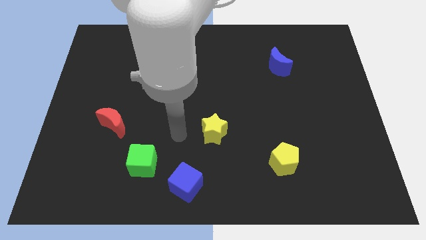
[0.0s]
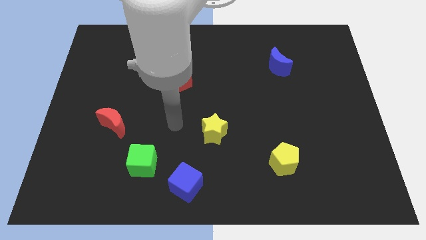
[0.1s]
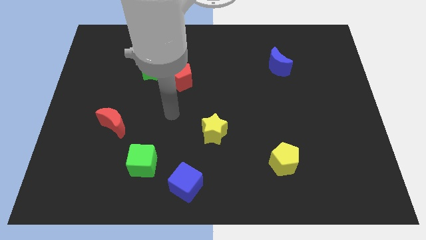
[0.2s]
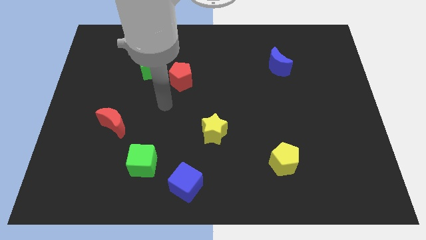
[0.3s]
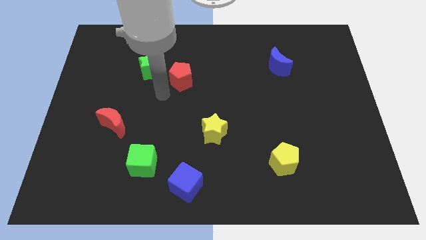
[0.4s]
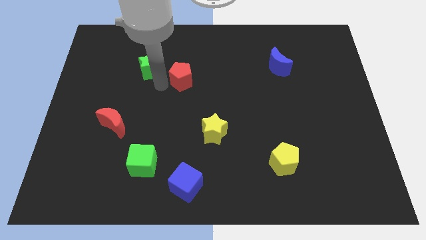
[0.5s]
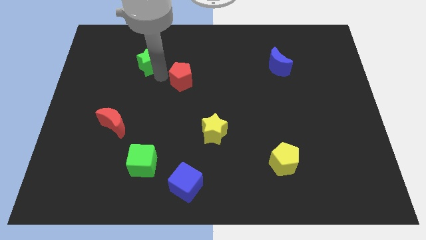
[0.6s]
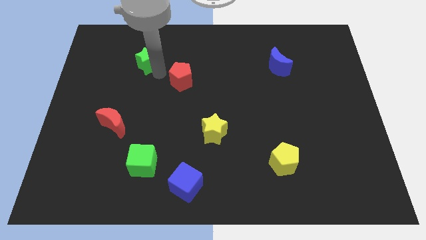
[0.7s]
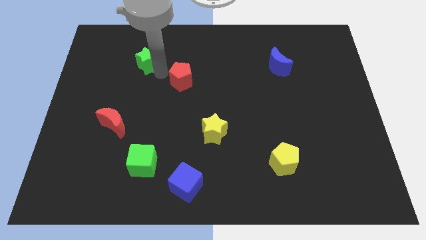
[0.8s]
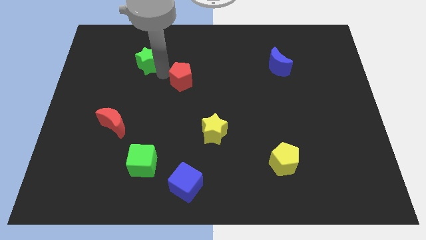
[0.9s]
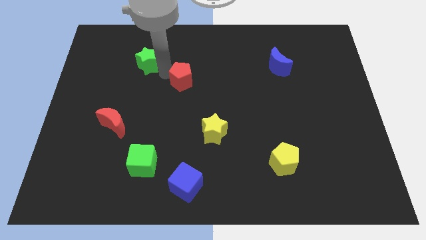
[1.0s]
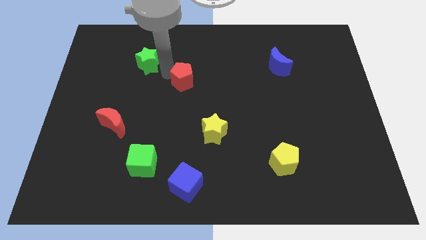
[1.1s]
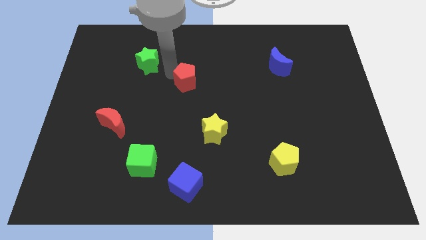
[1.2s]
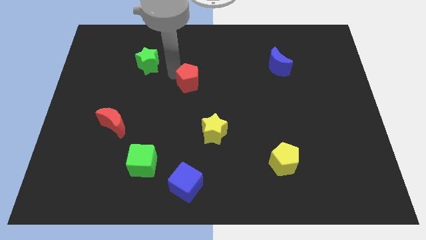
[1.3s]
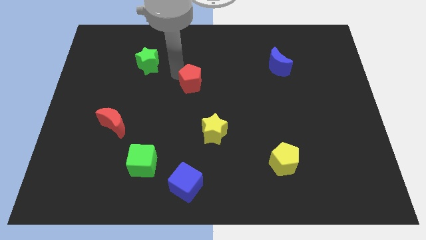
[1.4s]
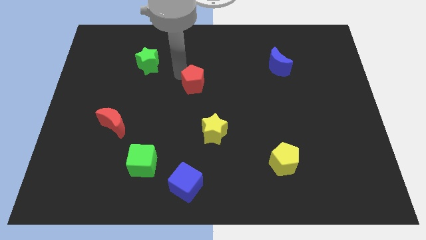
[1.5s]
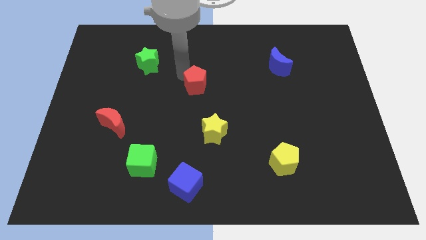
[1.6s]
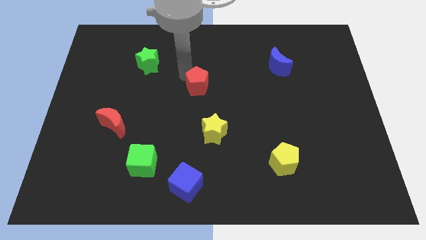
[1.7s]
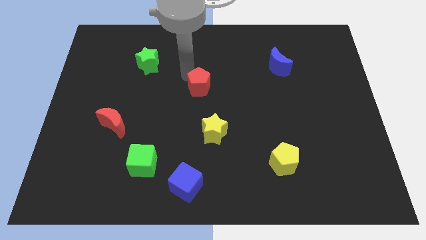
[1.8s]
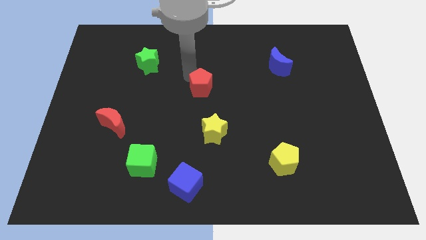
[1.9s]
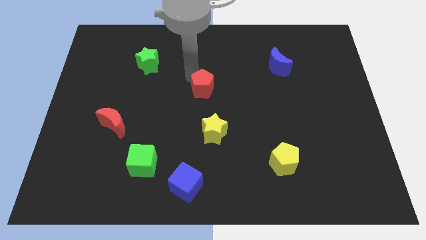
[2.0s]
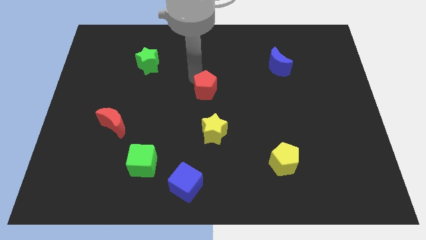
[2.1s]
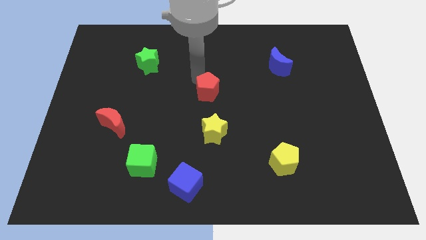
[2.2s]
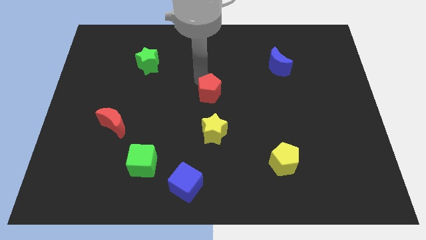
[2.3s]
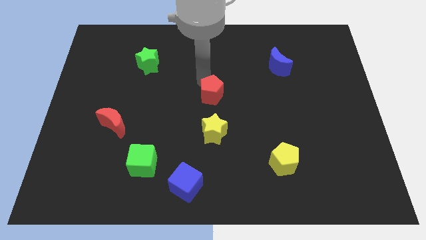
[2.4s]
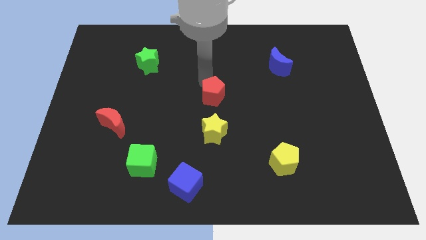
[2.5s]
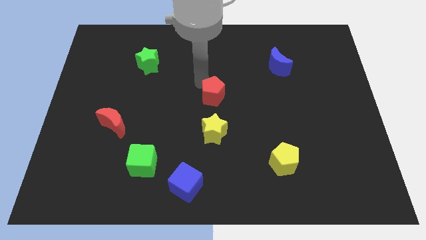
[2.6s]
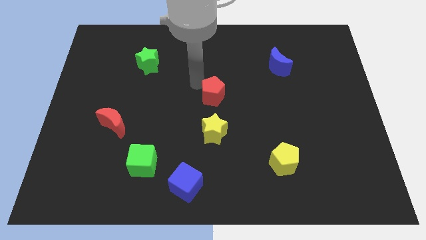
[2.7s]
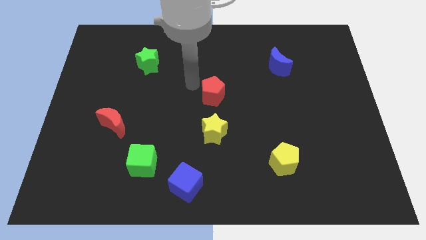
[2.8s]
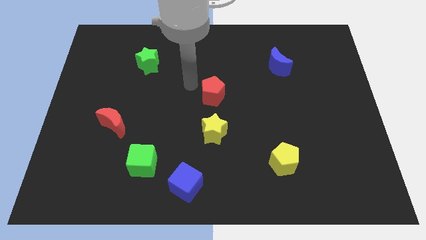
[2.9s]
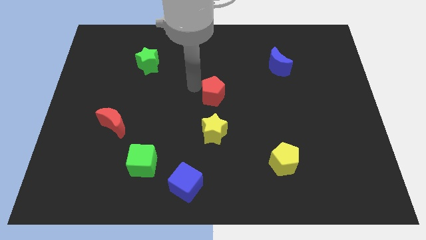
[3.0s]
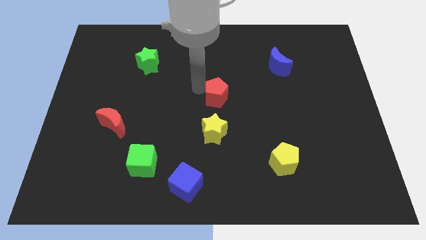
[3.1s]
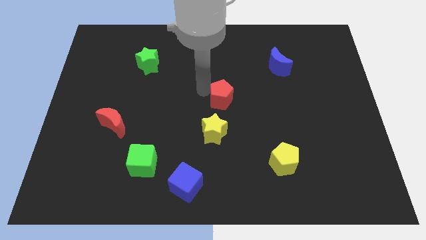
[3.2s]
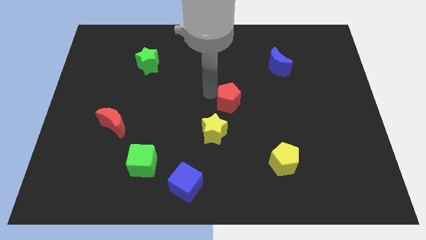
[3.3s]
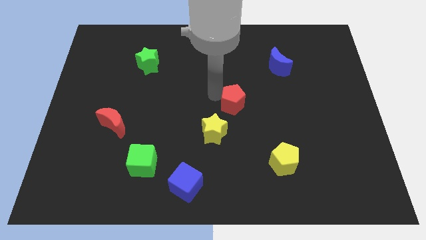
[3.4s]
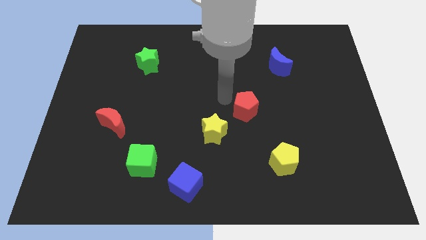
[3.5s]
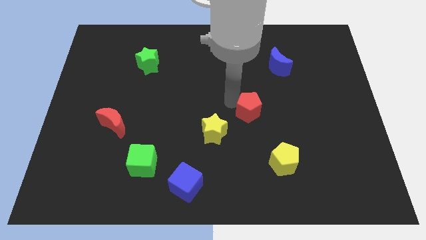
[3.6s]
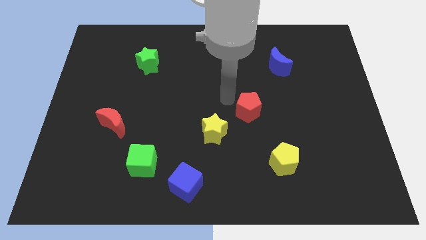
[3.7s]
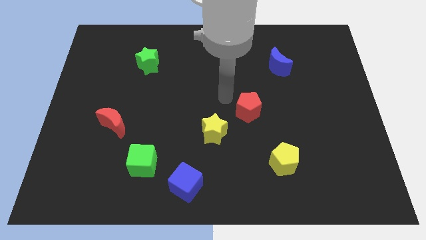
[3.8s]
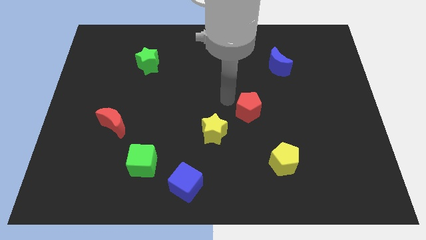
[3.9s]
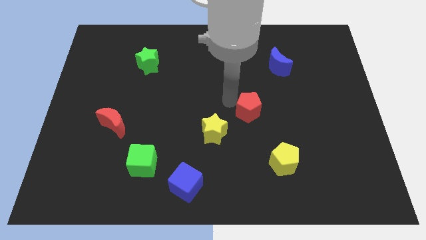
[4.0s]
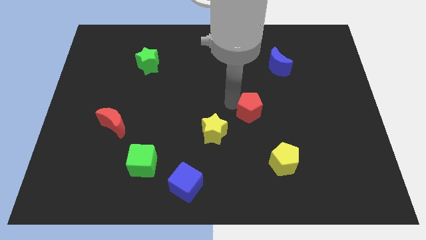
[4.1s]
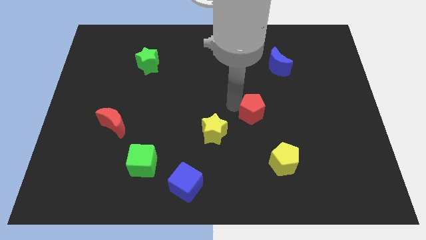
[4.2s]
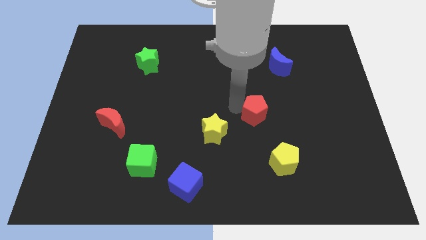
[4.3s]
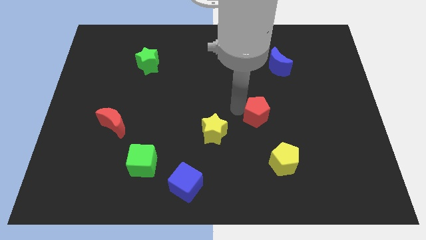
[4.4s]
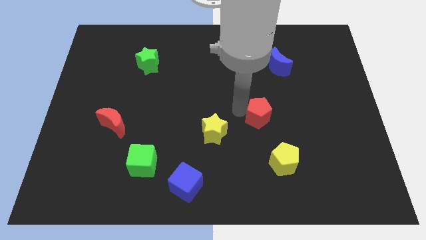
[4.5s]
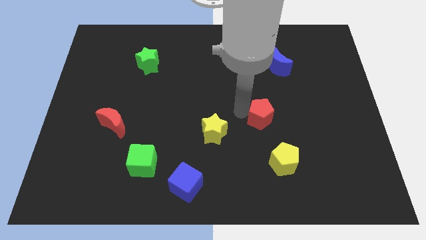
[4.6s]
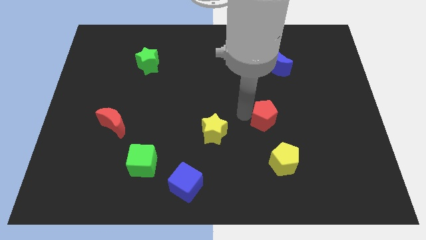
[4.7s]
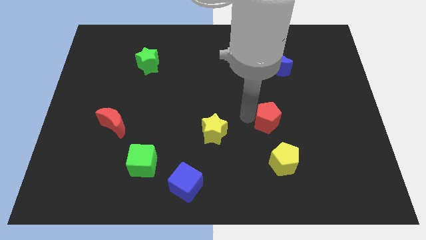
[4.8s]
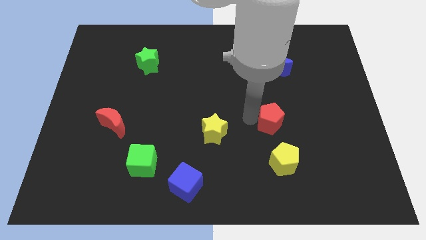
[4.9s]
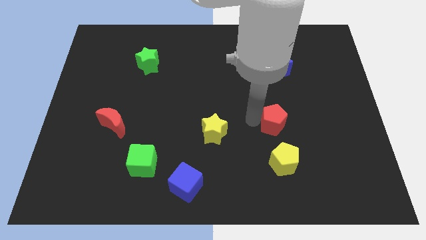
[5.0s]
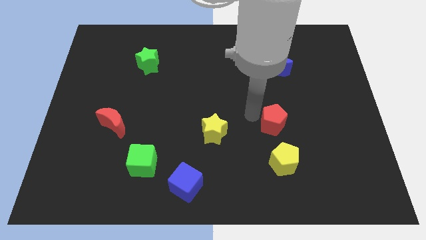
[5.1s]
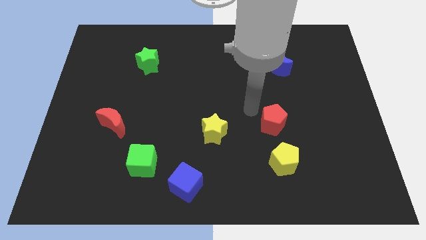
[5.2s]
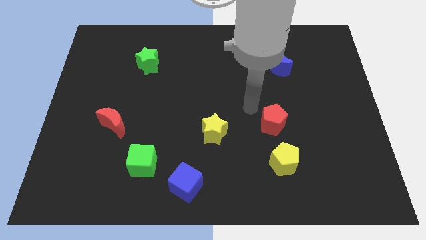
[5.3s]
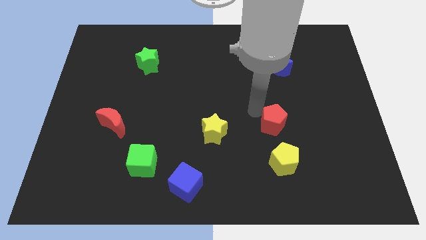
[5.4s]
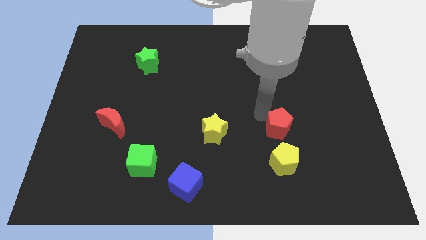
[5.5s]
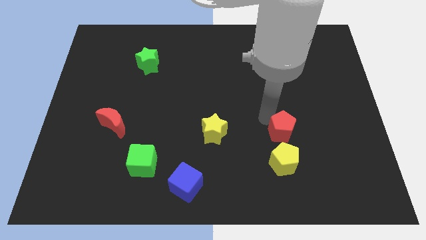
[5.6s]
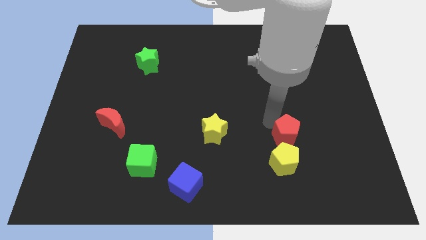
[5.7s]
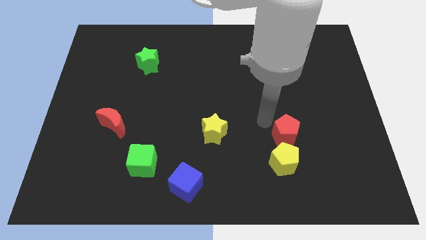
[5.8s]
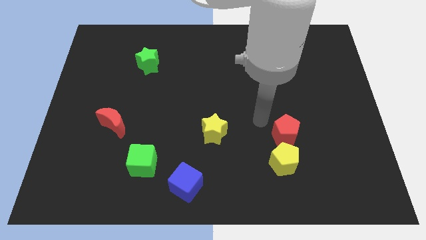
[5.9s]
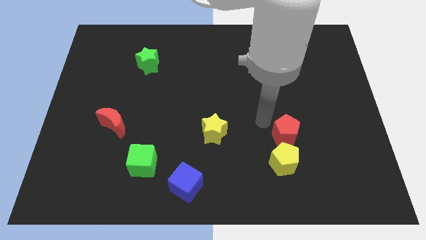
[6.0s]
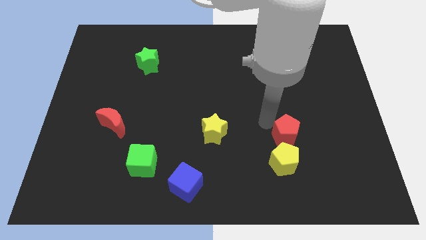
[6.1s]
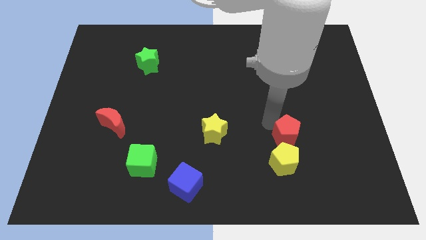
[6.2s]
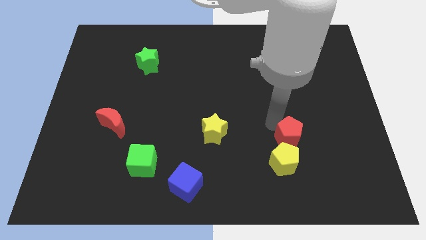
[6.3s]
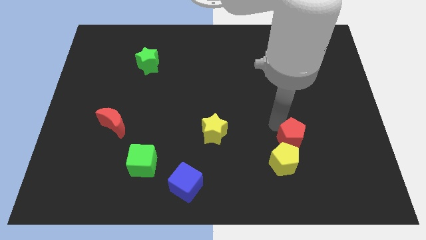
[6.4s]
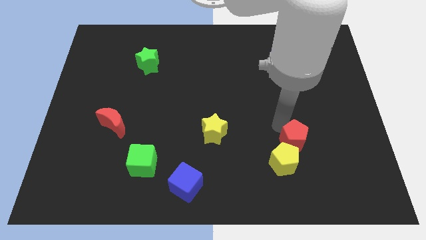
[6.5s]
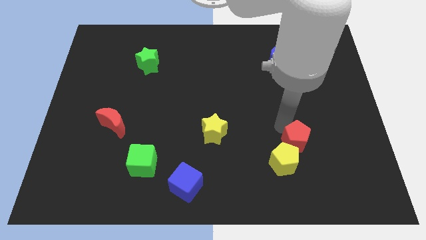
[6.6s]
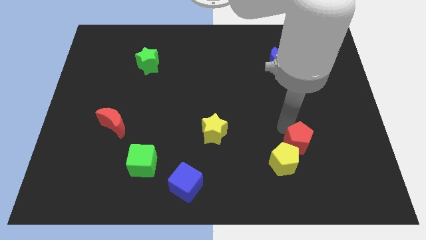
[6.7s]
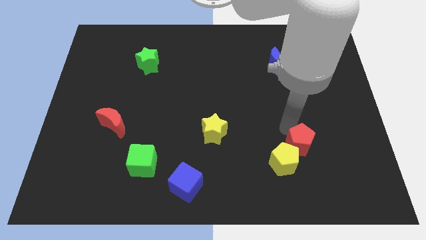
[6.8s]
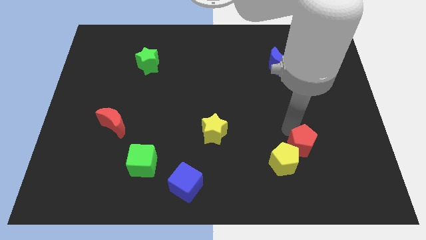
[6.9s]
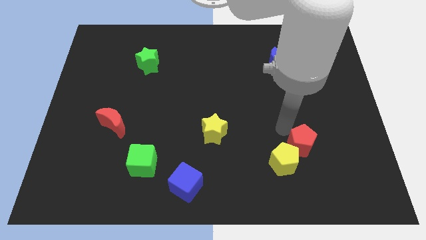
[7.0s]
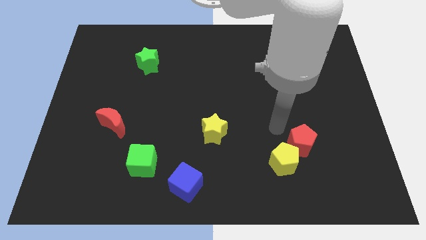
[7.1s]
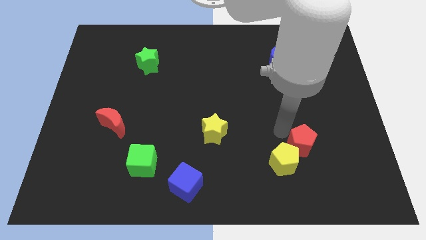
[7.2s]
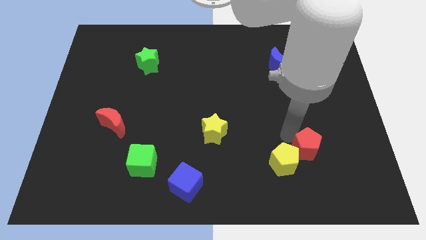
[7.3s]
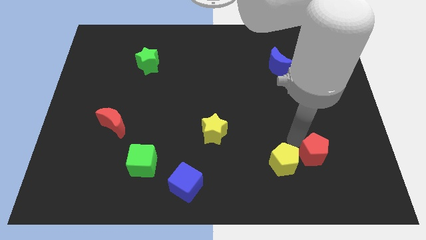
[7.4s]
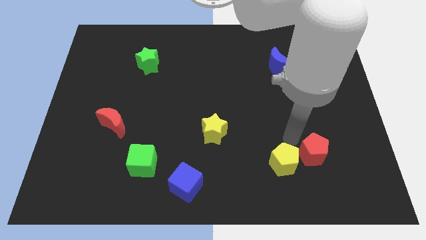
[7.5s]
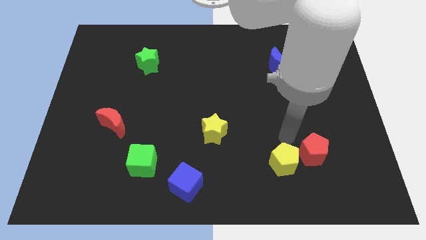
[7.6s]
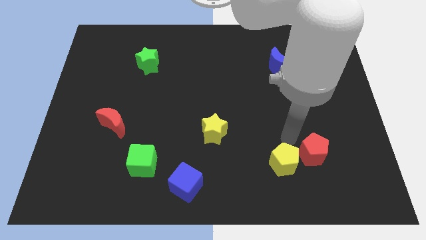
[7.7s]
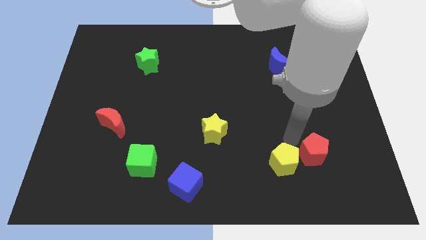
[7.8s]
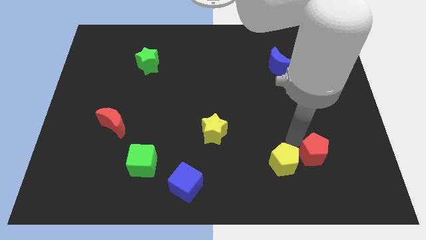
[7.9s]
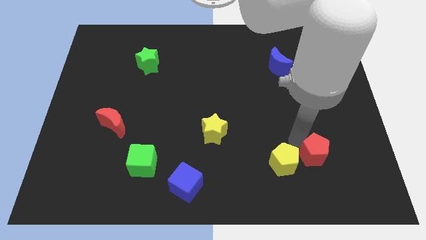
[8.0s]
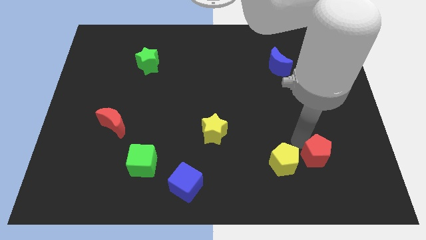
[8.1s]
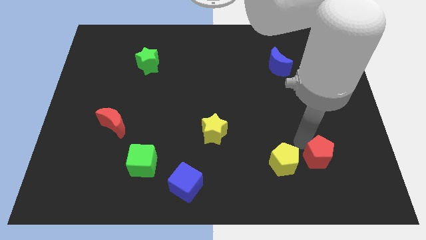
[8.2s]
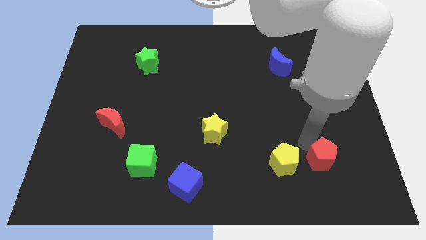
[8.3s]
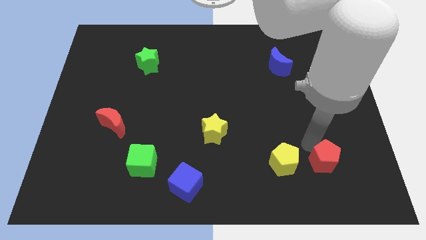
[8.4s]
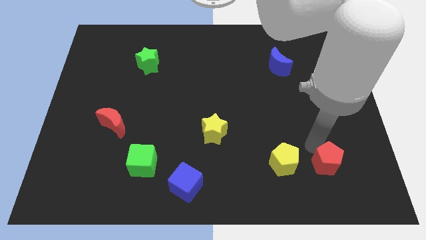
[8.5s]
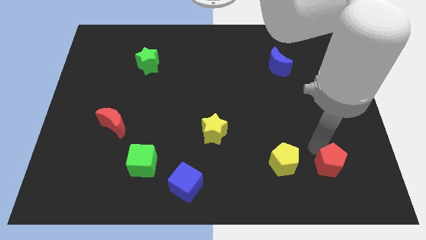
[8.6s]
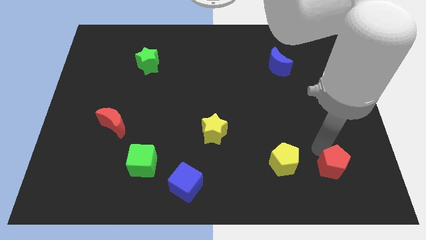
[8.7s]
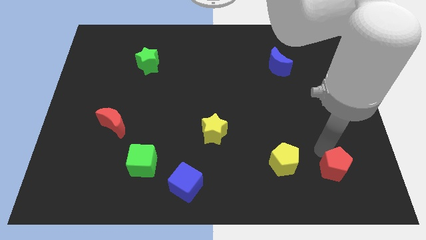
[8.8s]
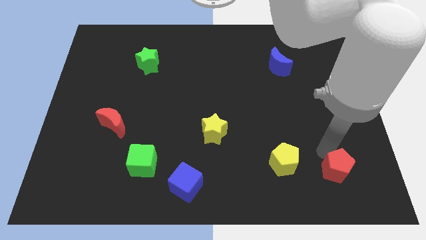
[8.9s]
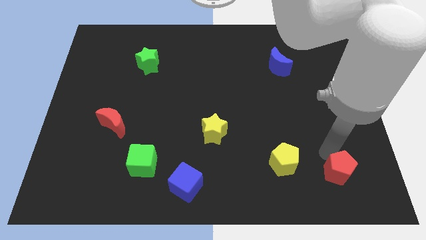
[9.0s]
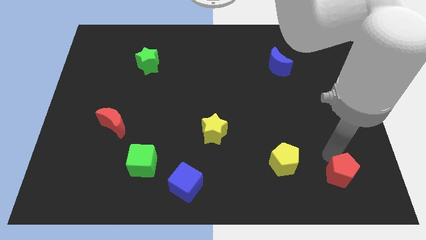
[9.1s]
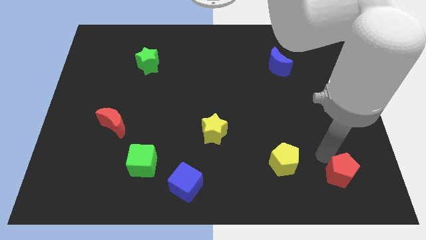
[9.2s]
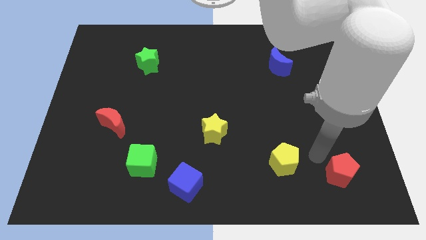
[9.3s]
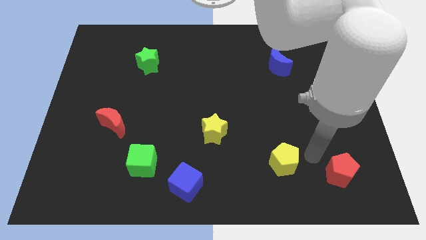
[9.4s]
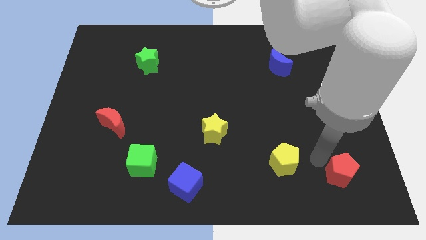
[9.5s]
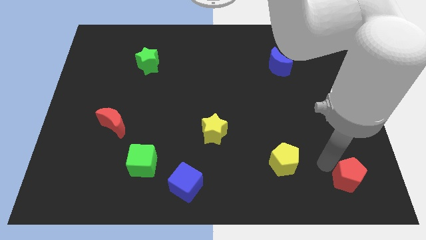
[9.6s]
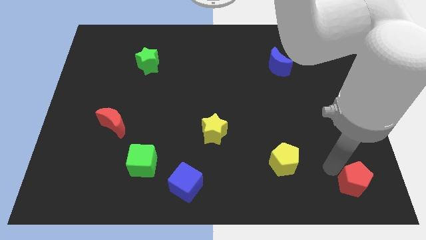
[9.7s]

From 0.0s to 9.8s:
slide the red pentagon to the bottom right corner
